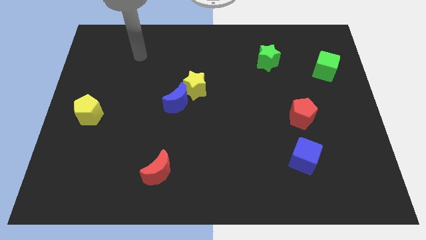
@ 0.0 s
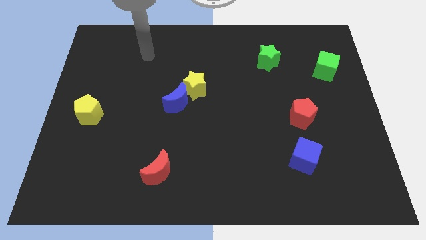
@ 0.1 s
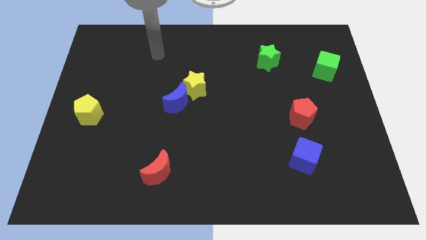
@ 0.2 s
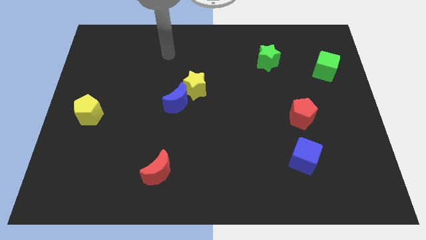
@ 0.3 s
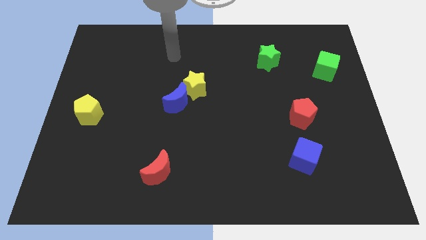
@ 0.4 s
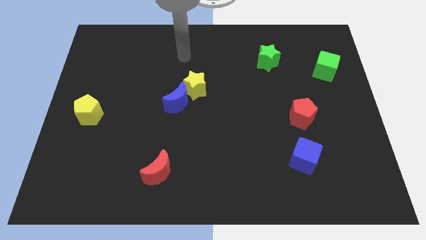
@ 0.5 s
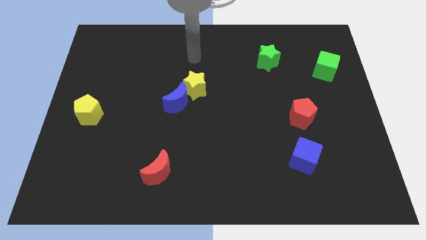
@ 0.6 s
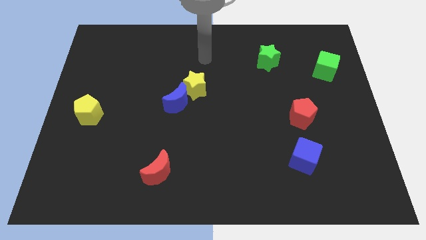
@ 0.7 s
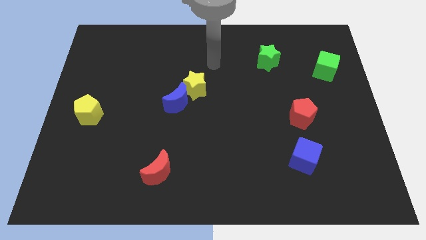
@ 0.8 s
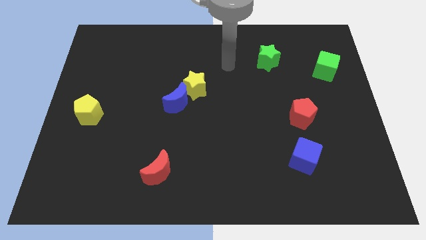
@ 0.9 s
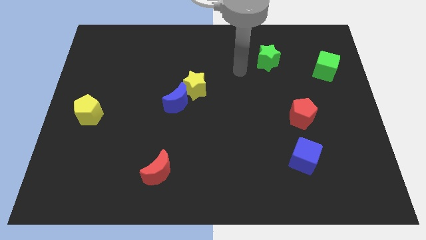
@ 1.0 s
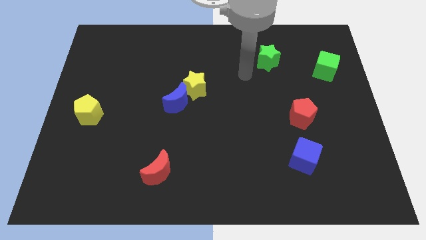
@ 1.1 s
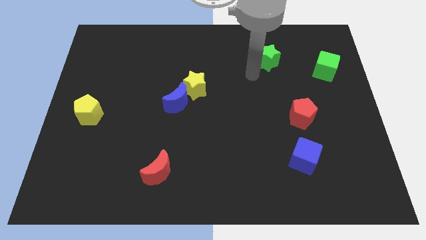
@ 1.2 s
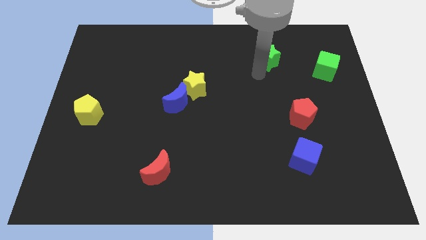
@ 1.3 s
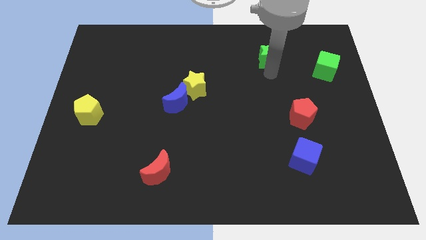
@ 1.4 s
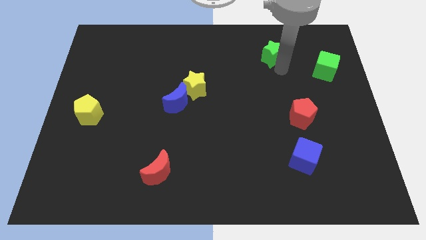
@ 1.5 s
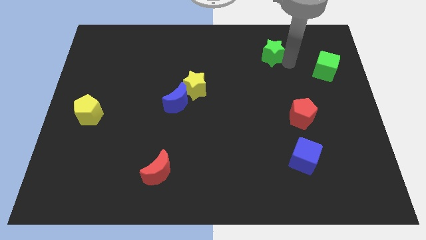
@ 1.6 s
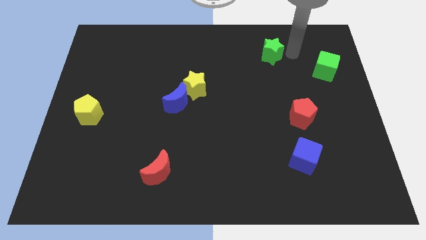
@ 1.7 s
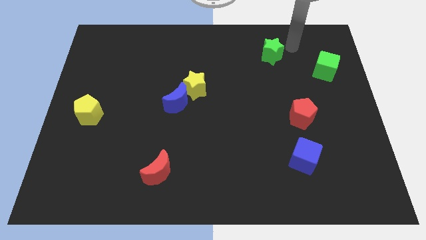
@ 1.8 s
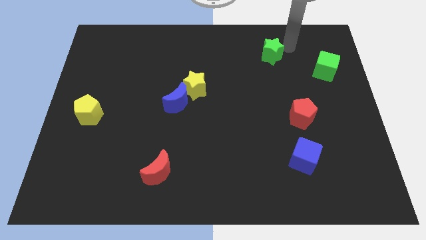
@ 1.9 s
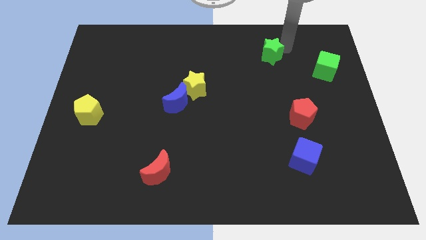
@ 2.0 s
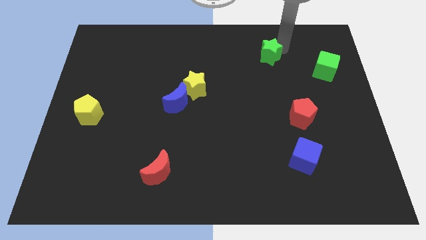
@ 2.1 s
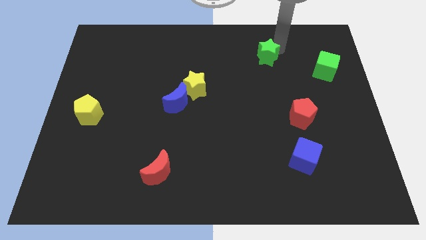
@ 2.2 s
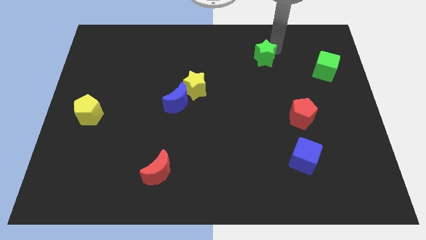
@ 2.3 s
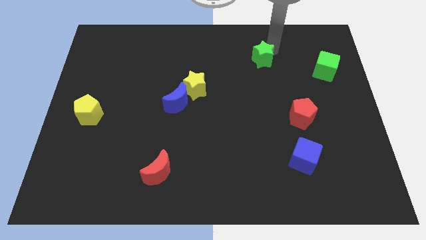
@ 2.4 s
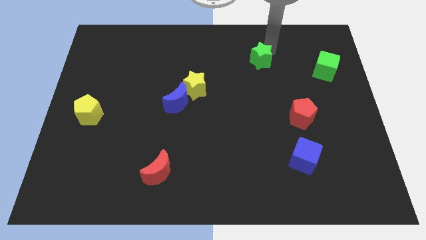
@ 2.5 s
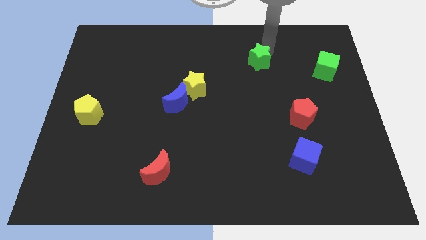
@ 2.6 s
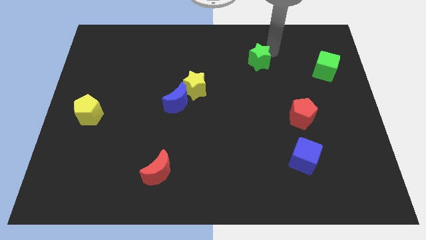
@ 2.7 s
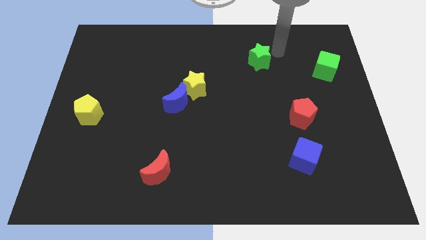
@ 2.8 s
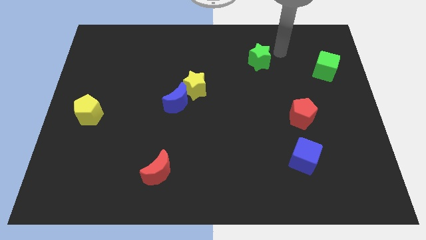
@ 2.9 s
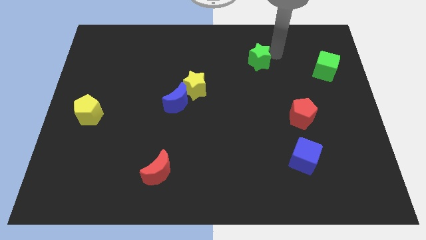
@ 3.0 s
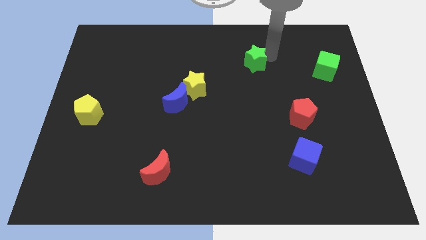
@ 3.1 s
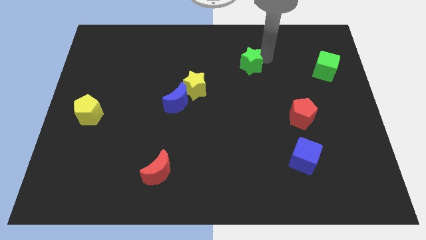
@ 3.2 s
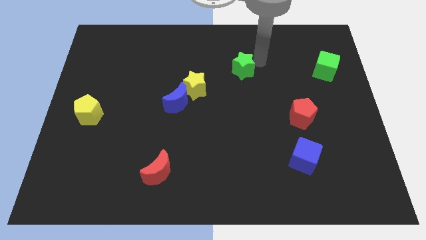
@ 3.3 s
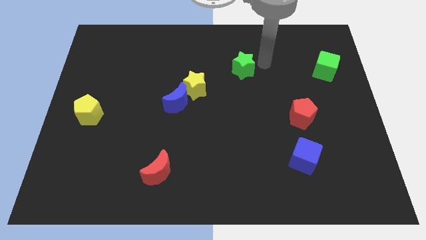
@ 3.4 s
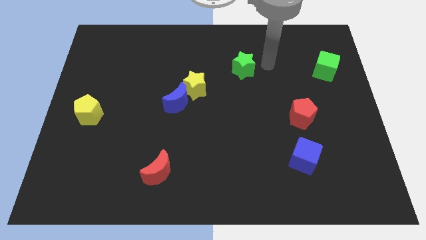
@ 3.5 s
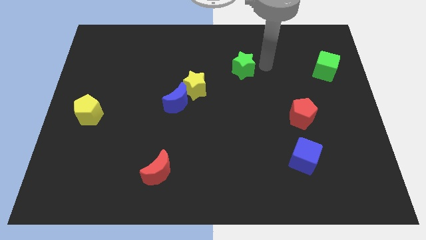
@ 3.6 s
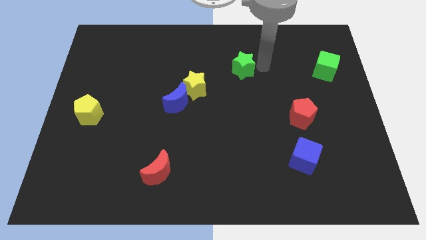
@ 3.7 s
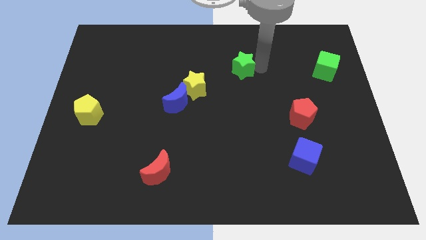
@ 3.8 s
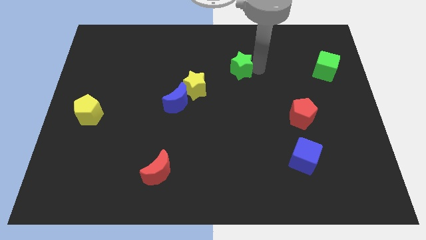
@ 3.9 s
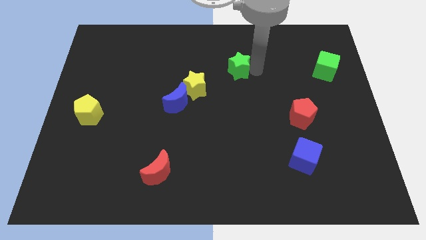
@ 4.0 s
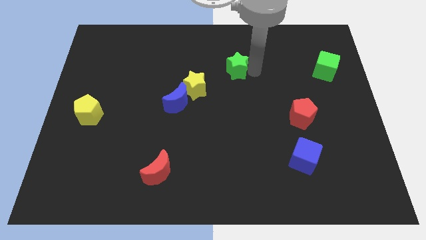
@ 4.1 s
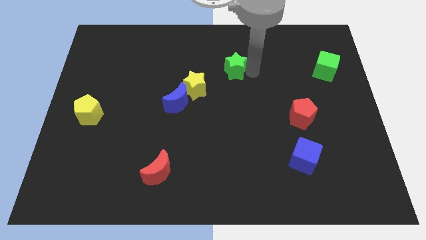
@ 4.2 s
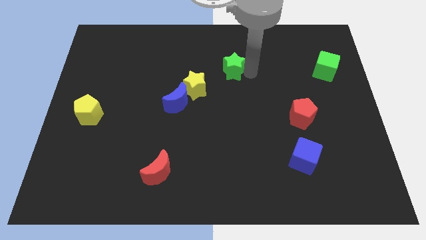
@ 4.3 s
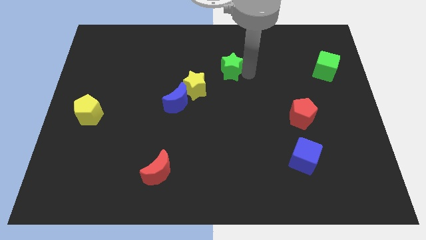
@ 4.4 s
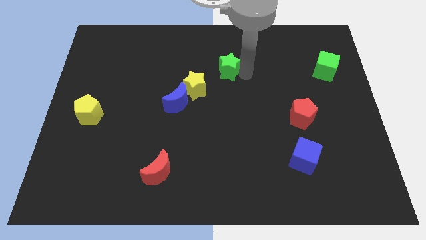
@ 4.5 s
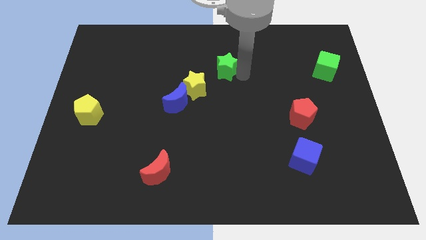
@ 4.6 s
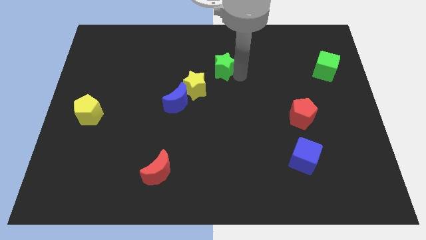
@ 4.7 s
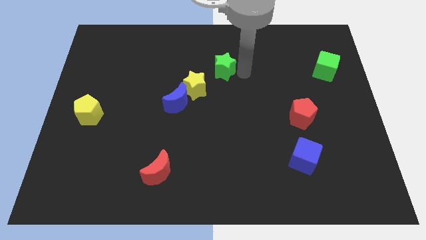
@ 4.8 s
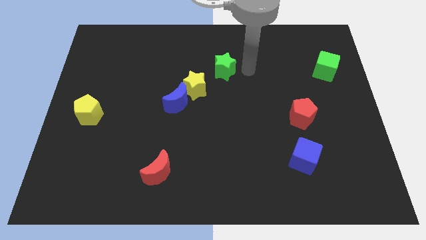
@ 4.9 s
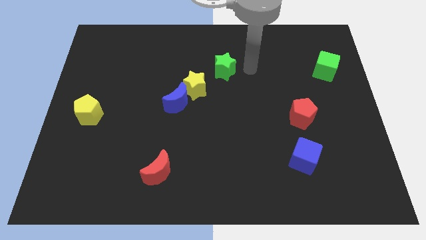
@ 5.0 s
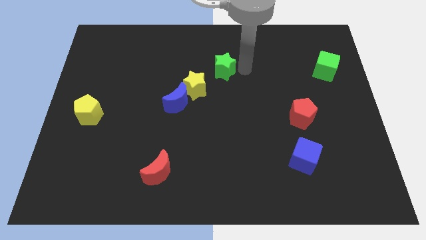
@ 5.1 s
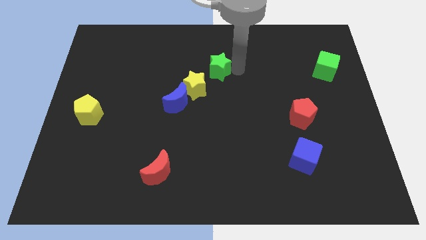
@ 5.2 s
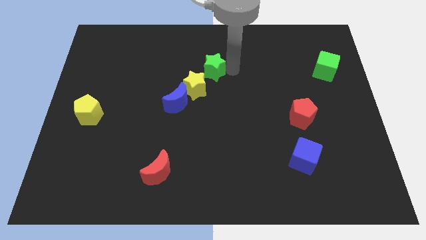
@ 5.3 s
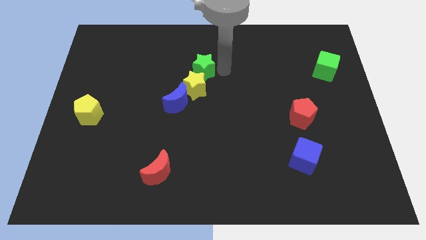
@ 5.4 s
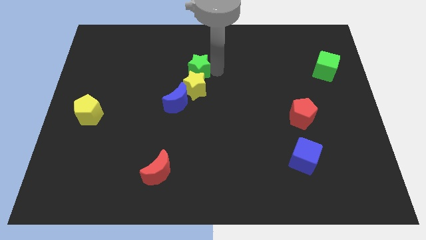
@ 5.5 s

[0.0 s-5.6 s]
slide the green star to the top of the blue moon

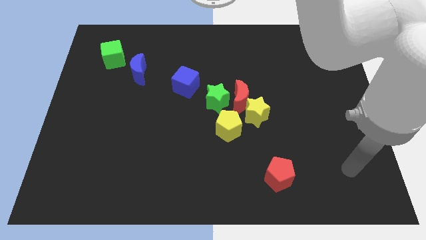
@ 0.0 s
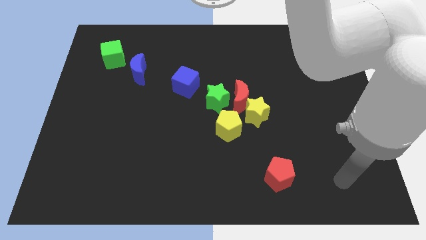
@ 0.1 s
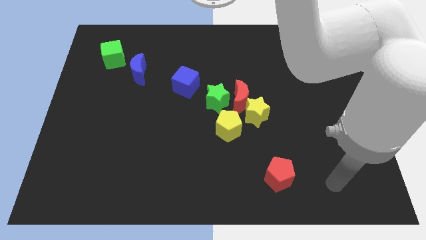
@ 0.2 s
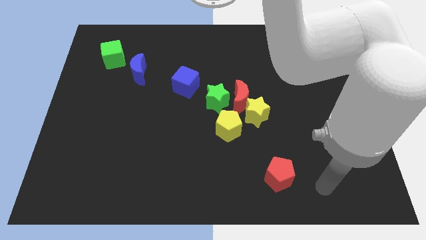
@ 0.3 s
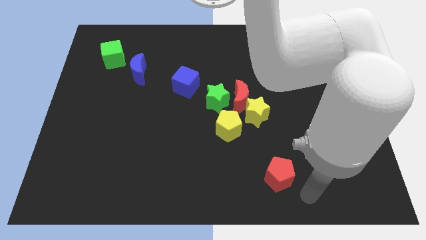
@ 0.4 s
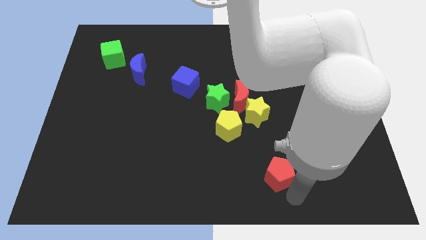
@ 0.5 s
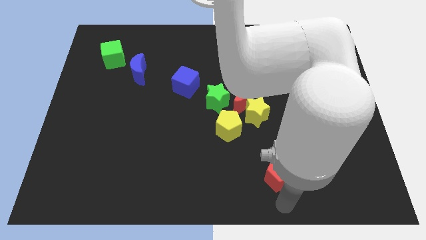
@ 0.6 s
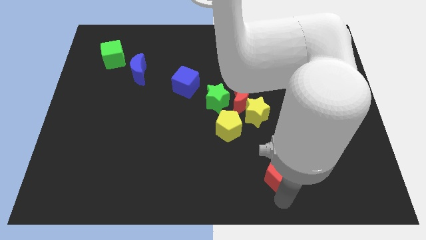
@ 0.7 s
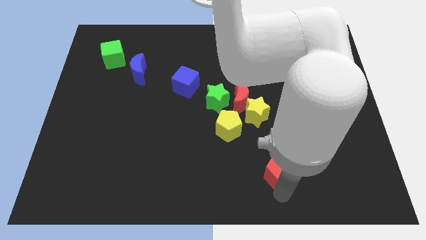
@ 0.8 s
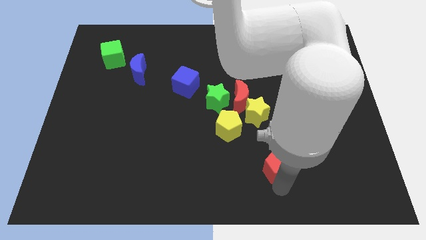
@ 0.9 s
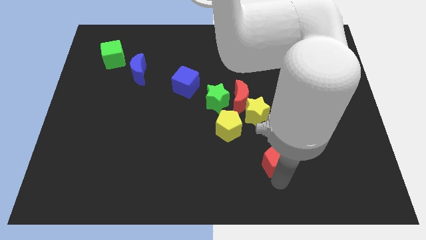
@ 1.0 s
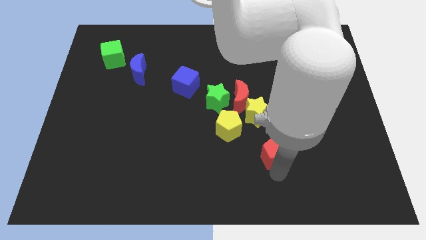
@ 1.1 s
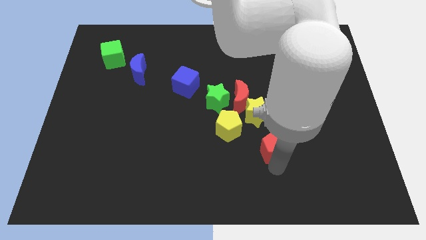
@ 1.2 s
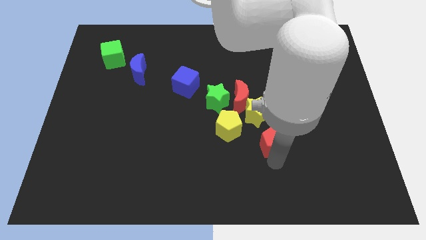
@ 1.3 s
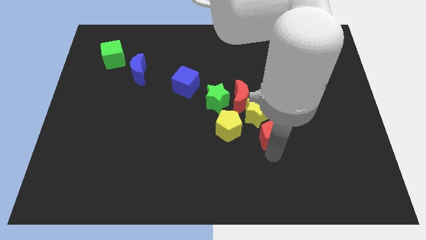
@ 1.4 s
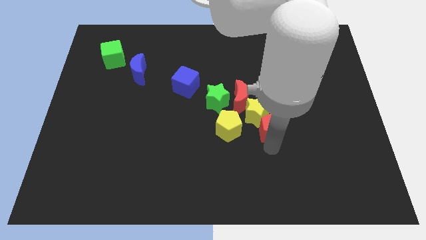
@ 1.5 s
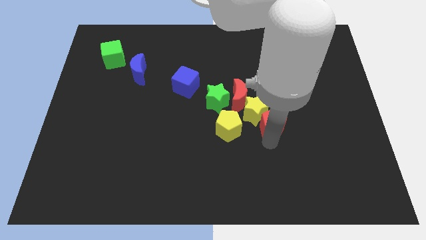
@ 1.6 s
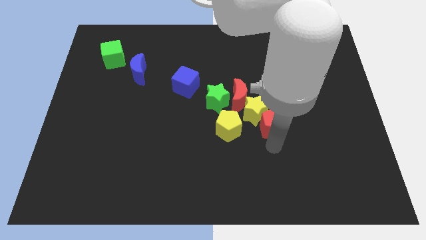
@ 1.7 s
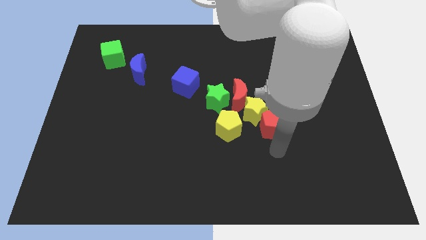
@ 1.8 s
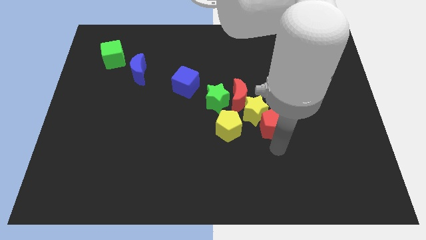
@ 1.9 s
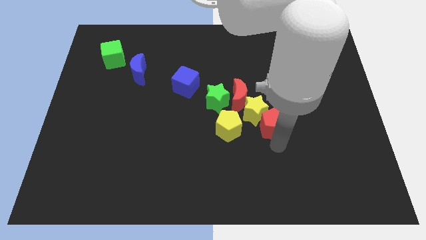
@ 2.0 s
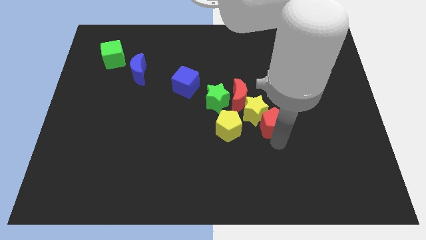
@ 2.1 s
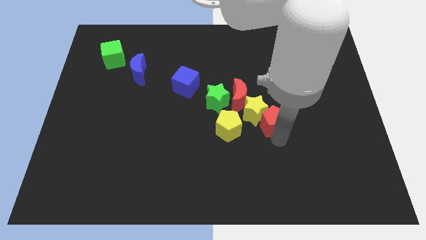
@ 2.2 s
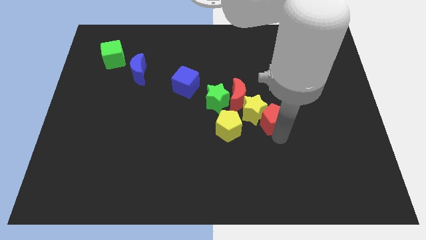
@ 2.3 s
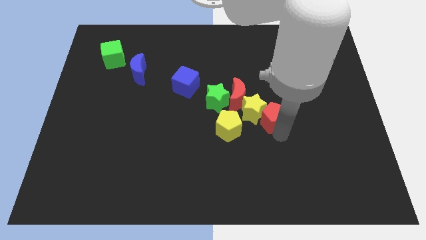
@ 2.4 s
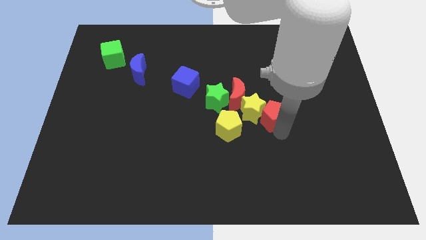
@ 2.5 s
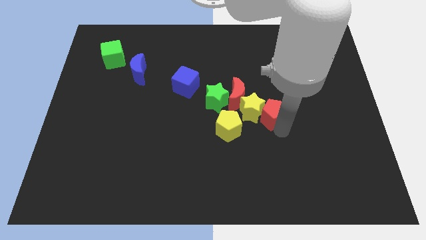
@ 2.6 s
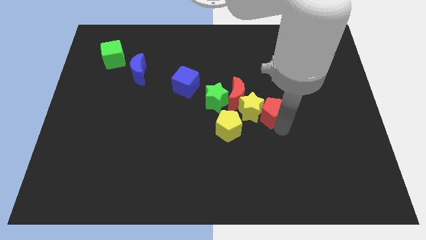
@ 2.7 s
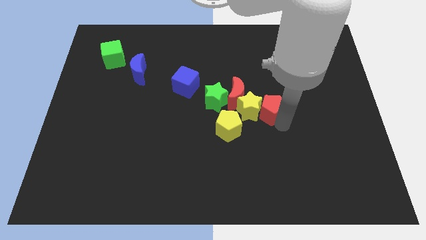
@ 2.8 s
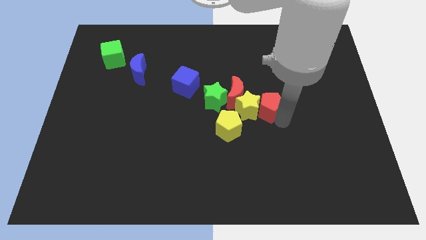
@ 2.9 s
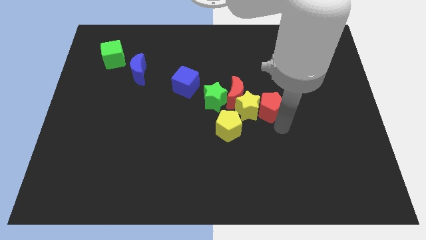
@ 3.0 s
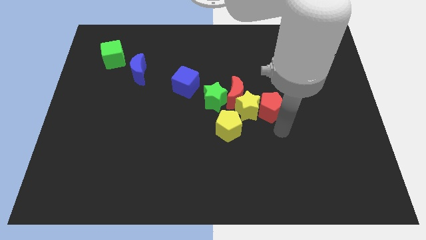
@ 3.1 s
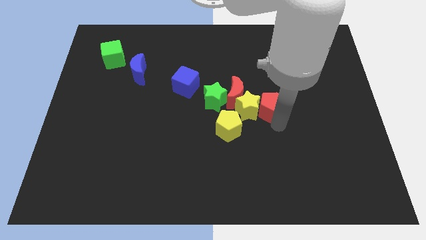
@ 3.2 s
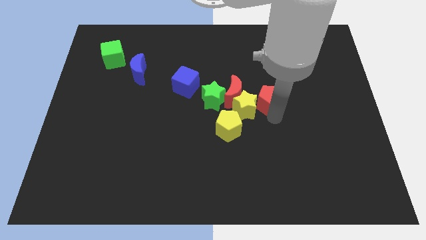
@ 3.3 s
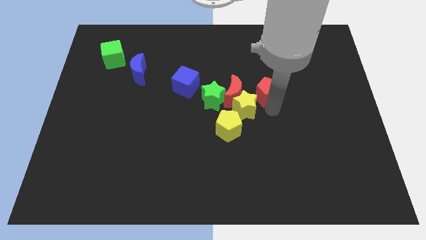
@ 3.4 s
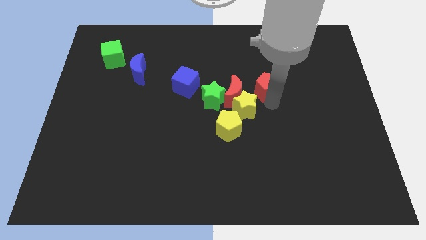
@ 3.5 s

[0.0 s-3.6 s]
slide the red pentagon diagonally up and to the right of the red moon
